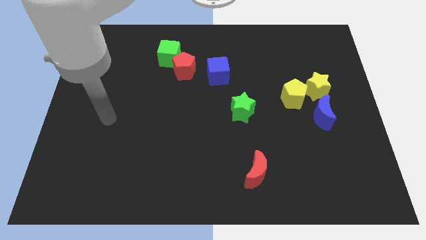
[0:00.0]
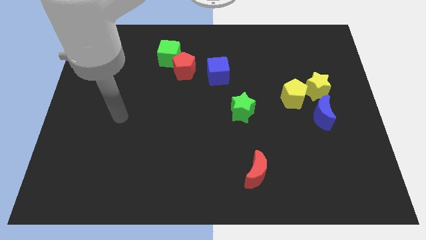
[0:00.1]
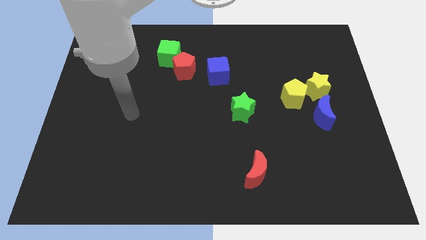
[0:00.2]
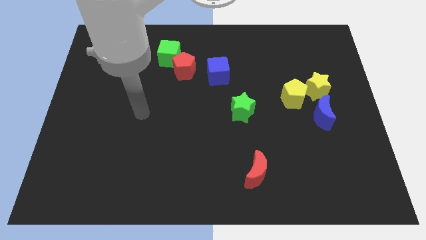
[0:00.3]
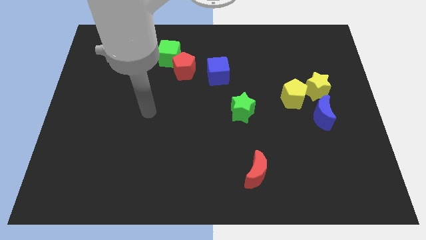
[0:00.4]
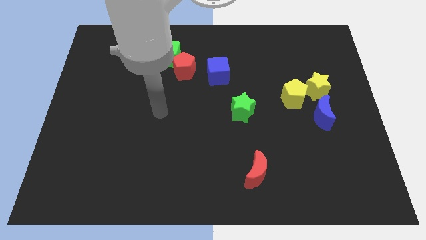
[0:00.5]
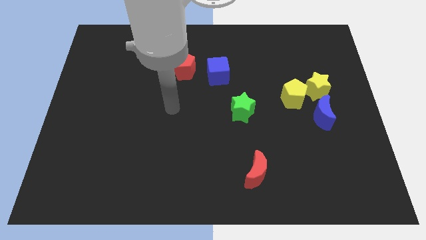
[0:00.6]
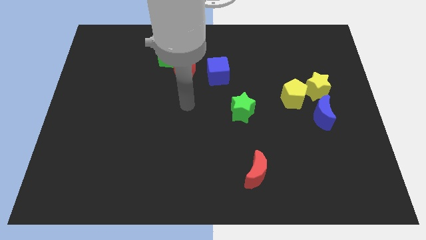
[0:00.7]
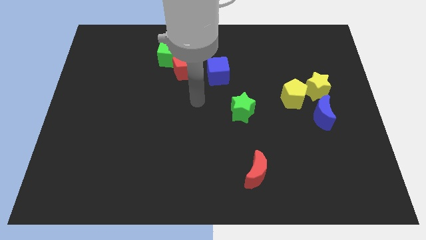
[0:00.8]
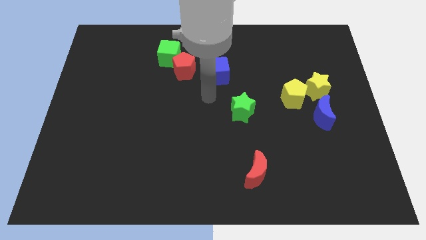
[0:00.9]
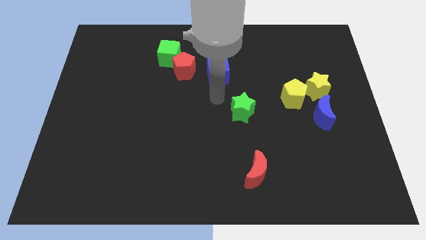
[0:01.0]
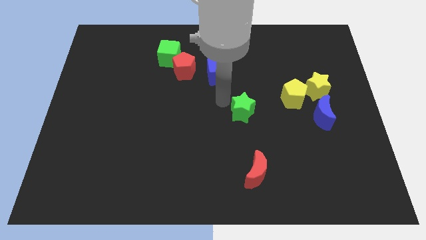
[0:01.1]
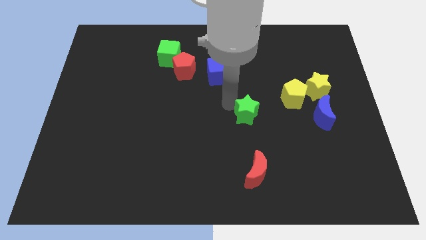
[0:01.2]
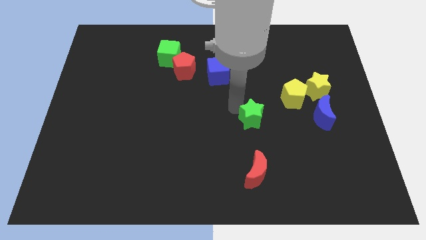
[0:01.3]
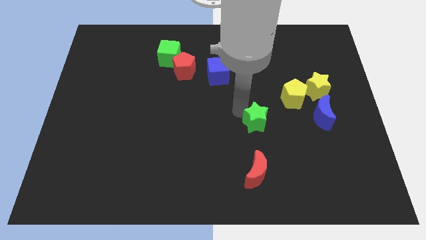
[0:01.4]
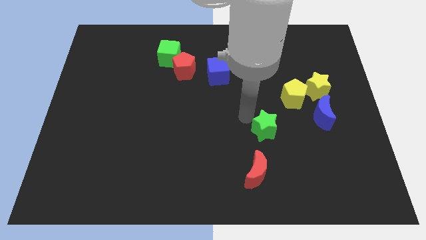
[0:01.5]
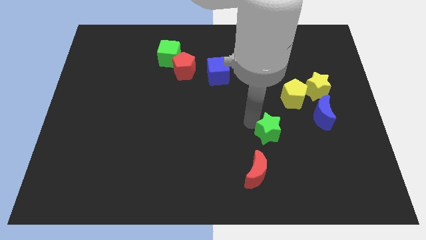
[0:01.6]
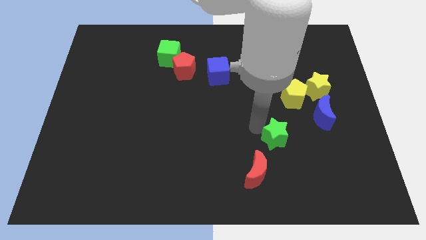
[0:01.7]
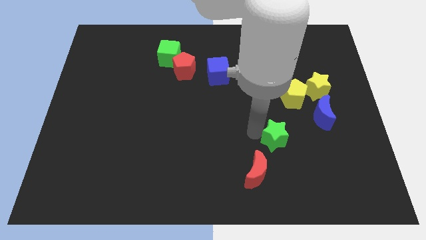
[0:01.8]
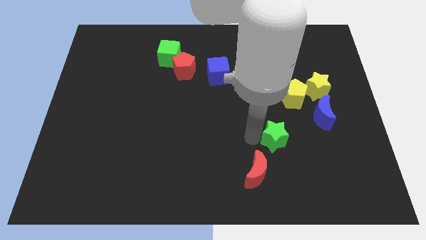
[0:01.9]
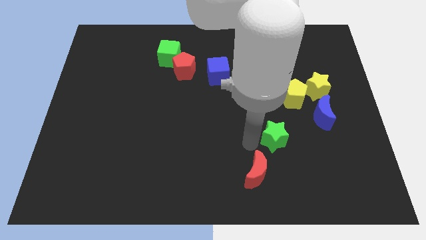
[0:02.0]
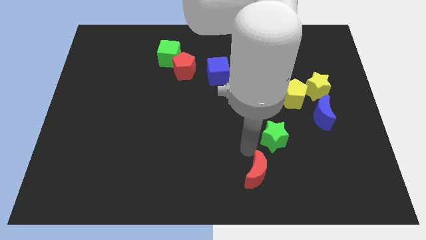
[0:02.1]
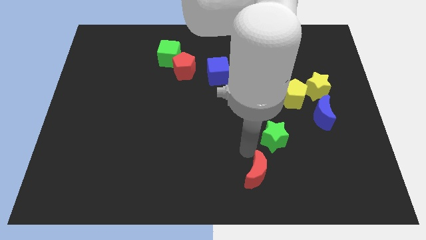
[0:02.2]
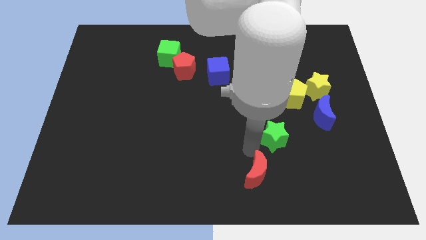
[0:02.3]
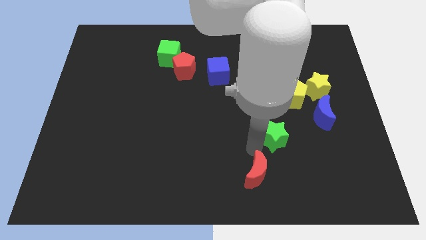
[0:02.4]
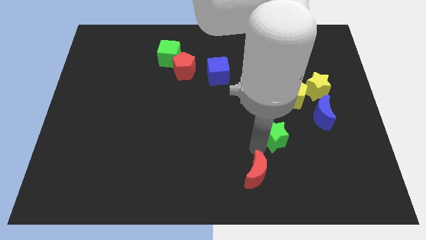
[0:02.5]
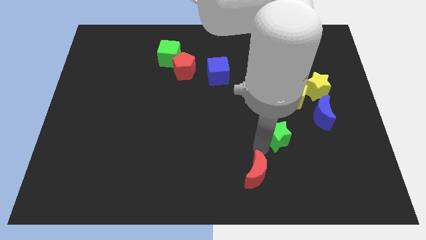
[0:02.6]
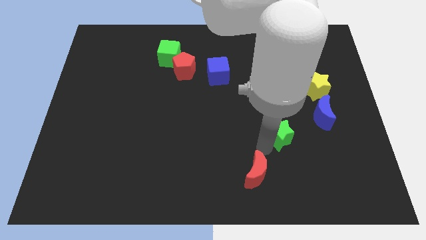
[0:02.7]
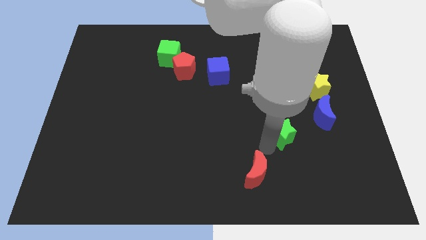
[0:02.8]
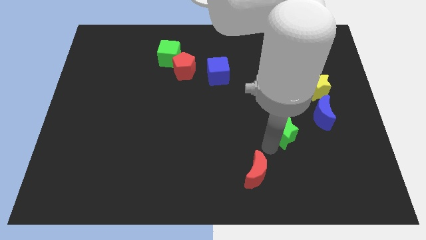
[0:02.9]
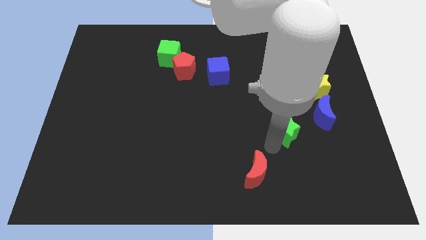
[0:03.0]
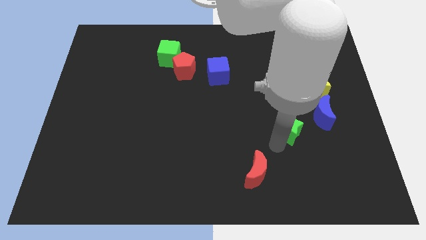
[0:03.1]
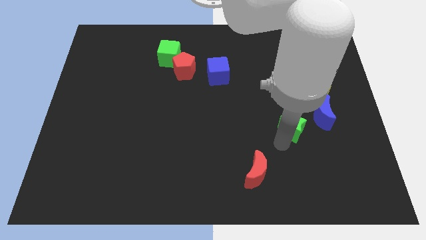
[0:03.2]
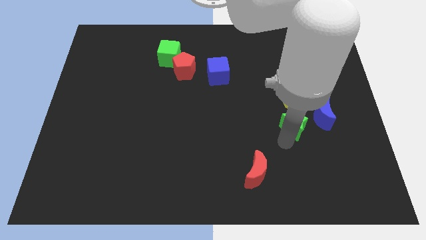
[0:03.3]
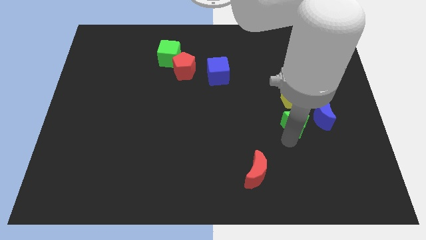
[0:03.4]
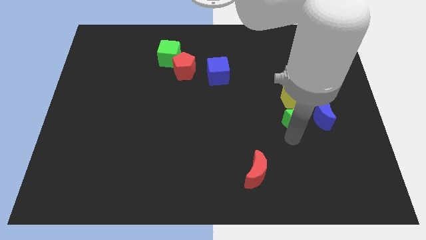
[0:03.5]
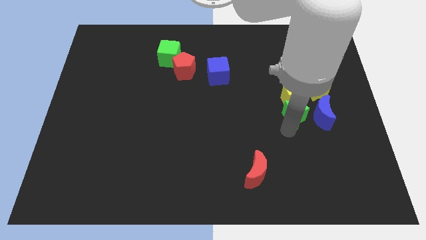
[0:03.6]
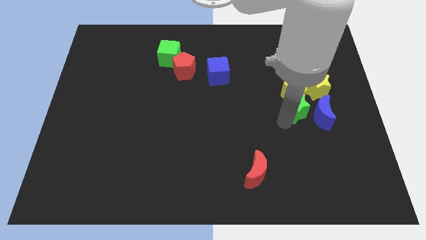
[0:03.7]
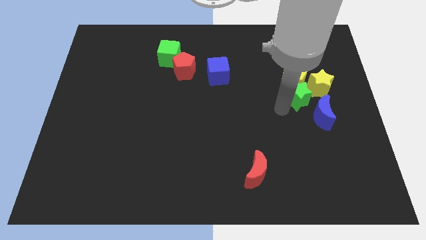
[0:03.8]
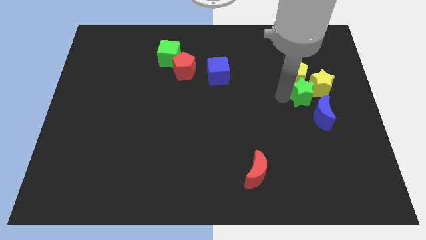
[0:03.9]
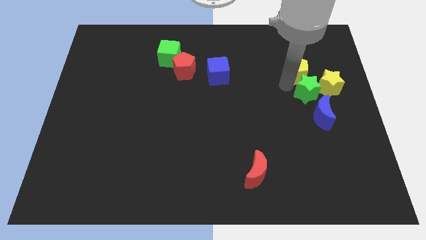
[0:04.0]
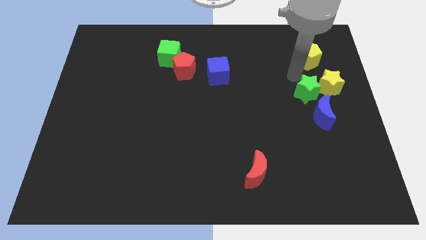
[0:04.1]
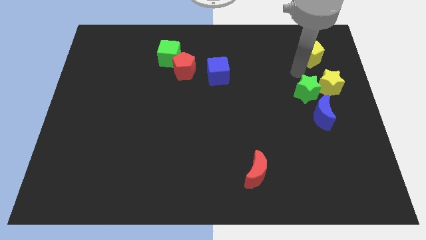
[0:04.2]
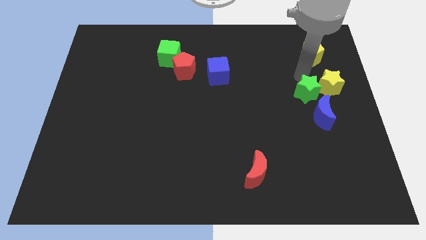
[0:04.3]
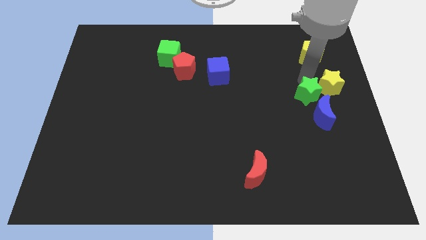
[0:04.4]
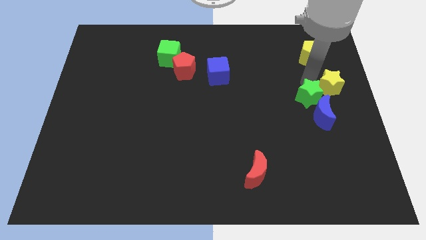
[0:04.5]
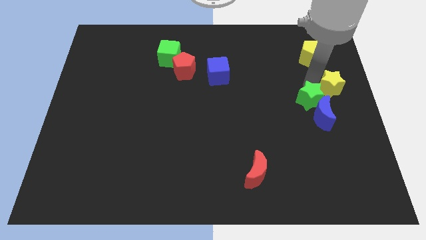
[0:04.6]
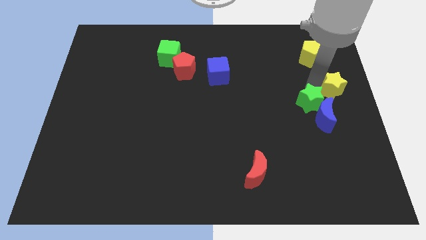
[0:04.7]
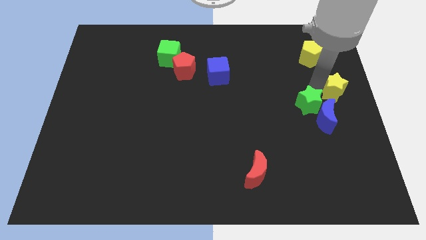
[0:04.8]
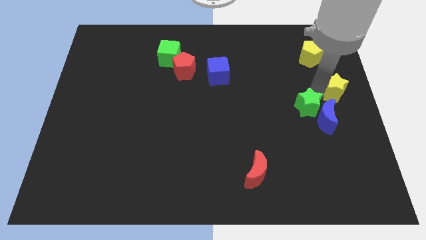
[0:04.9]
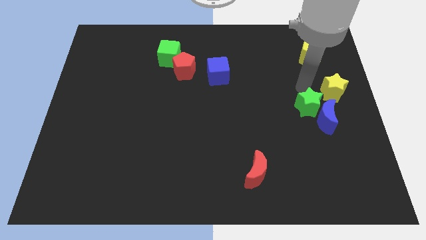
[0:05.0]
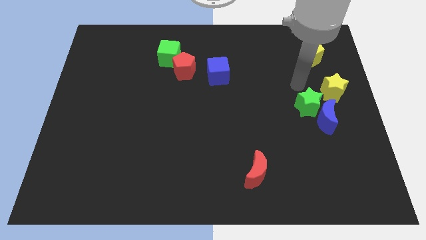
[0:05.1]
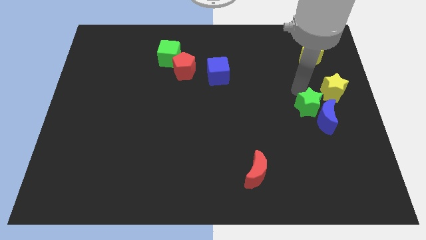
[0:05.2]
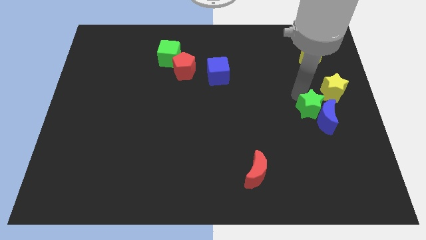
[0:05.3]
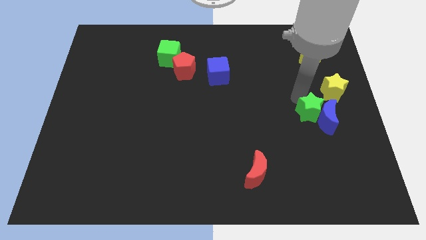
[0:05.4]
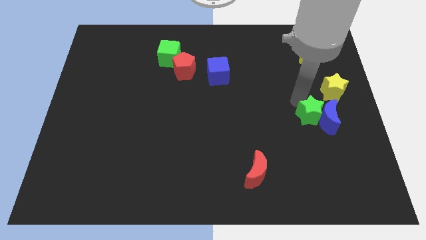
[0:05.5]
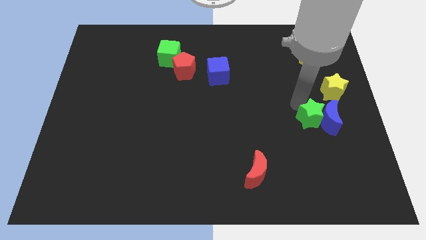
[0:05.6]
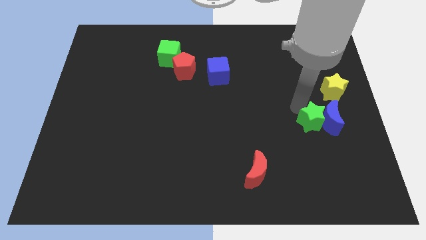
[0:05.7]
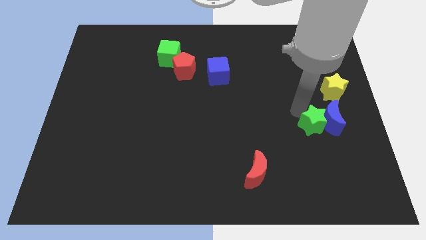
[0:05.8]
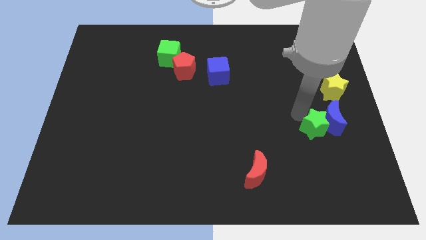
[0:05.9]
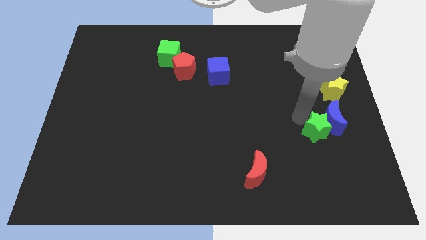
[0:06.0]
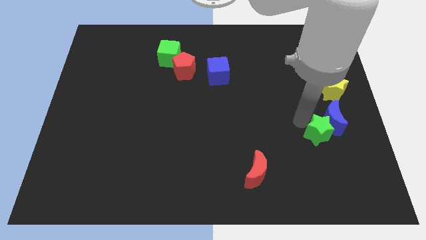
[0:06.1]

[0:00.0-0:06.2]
push the green star below the blue moon

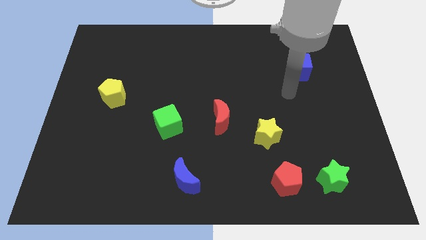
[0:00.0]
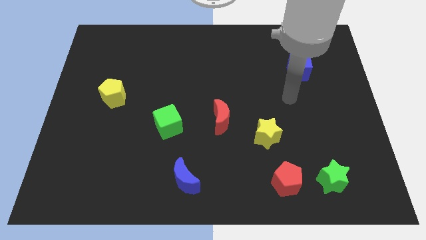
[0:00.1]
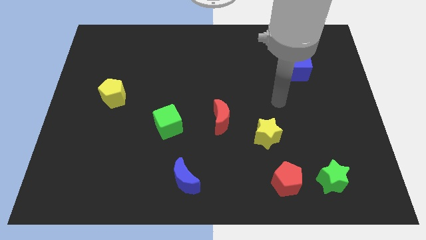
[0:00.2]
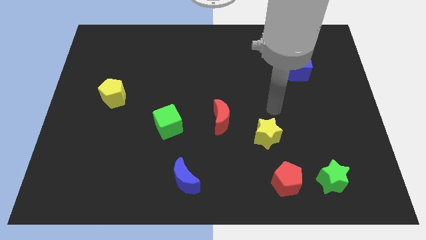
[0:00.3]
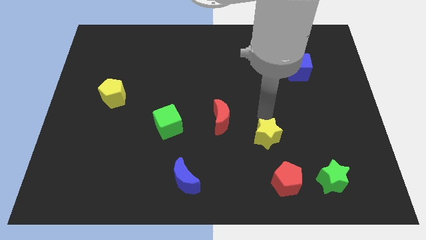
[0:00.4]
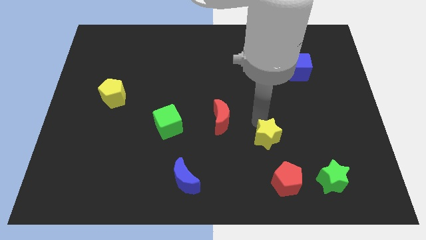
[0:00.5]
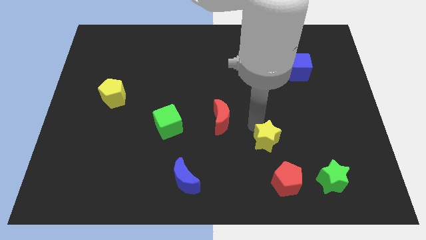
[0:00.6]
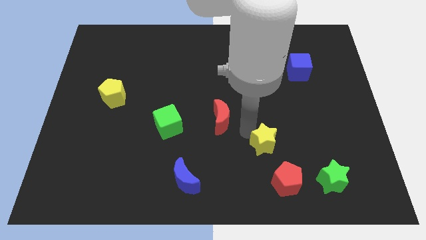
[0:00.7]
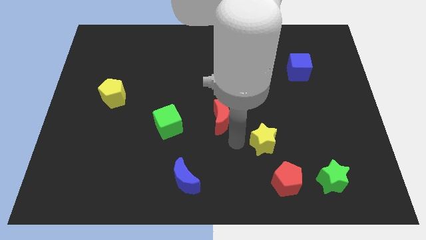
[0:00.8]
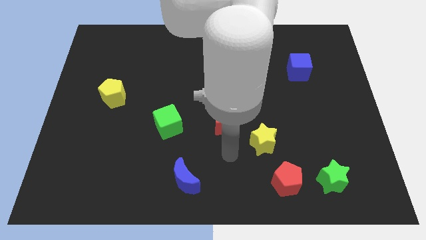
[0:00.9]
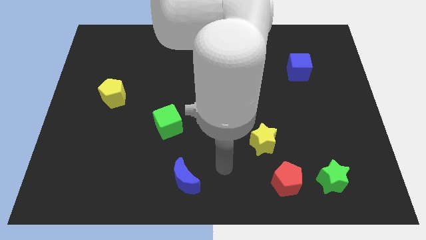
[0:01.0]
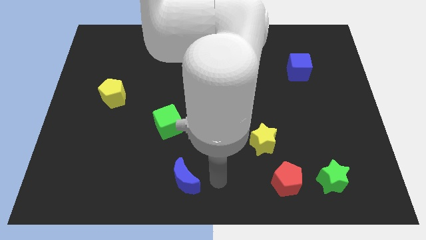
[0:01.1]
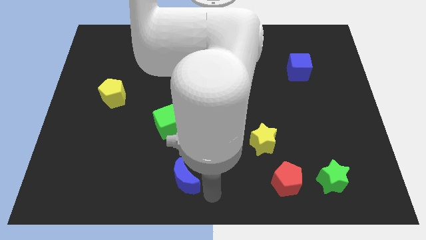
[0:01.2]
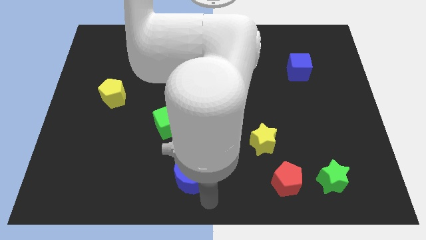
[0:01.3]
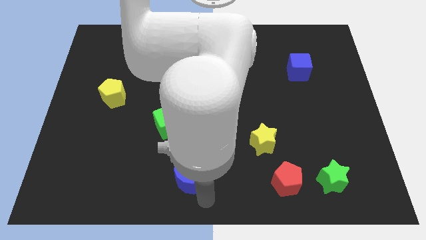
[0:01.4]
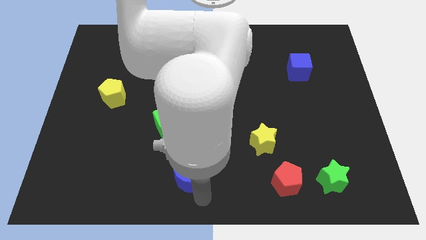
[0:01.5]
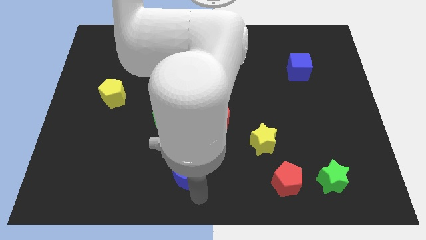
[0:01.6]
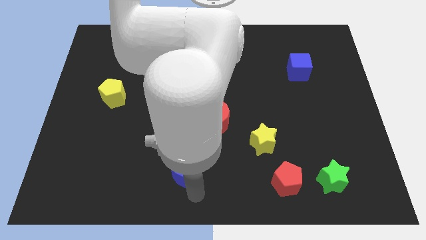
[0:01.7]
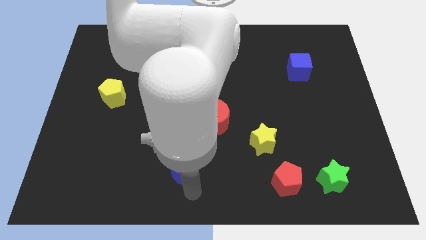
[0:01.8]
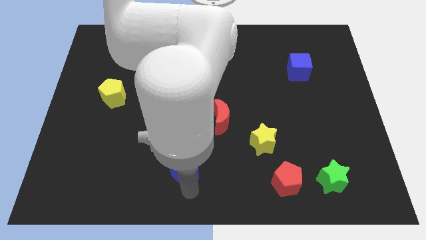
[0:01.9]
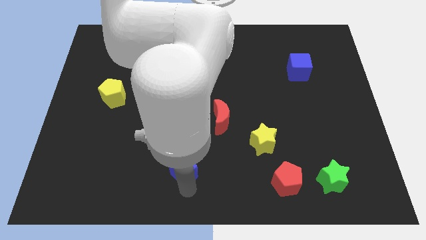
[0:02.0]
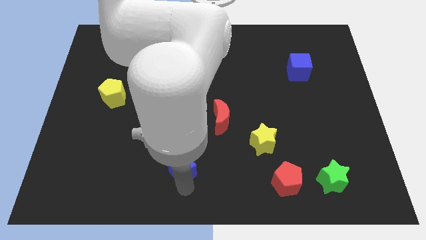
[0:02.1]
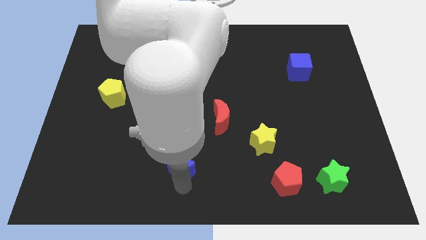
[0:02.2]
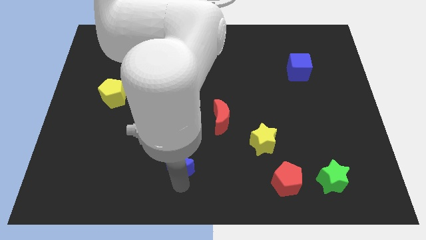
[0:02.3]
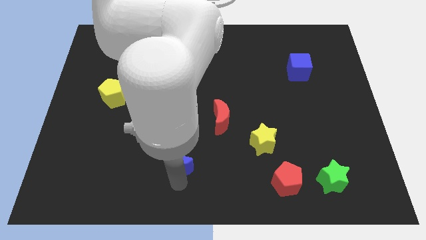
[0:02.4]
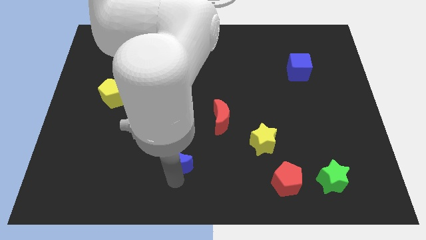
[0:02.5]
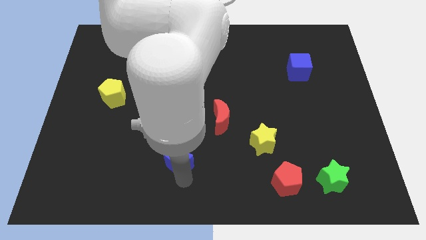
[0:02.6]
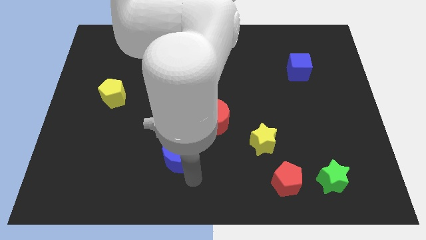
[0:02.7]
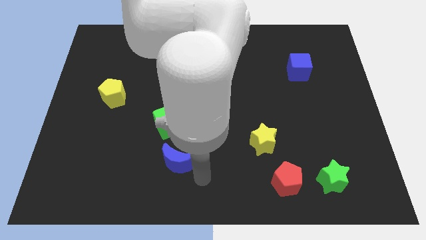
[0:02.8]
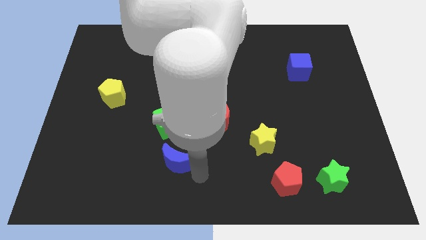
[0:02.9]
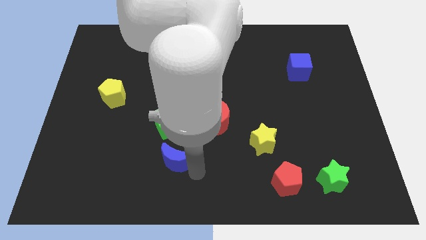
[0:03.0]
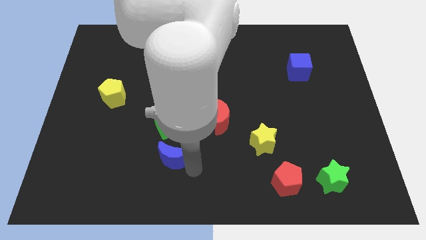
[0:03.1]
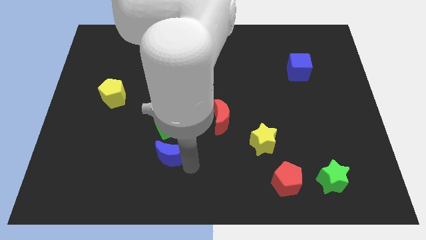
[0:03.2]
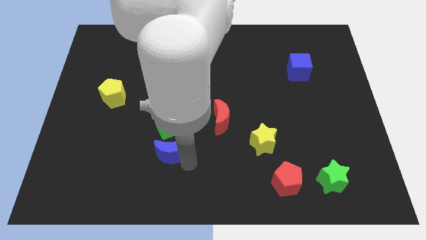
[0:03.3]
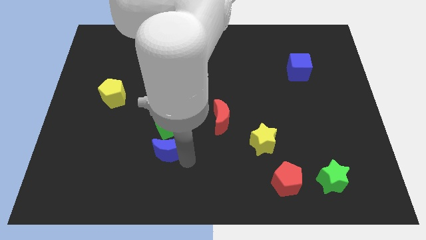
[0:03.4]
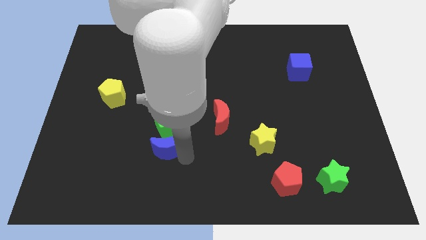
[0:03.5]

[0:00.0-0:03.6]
move the blue moon diagonally down and to the left of the green cube
